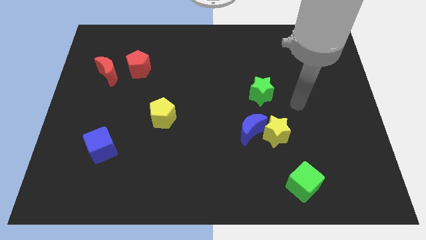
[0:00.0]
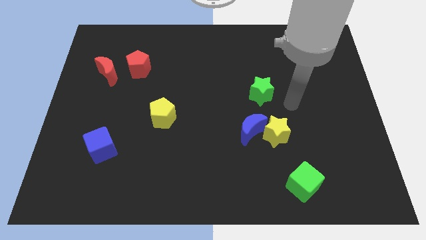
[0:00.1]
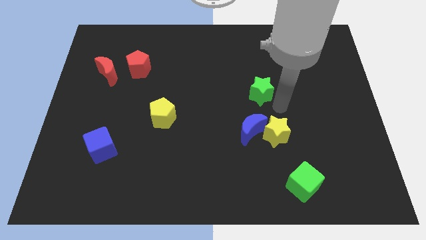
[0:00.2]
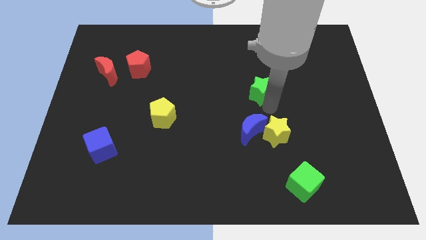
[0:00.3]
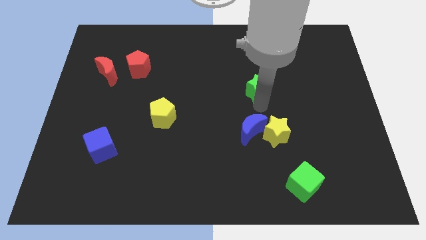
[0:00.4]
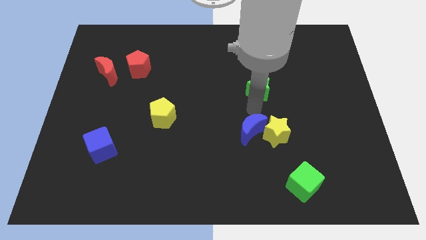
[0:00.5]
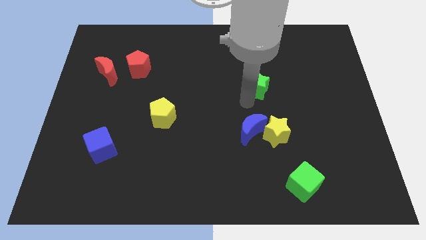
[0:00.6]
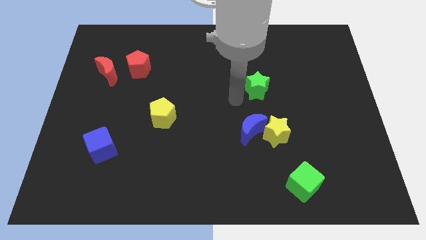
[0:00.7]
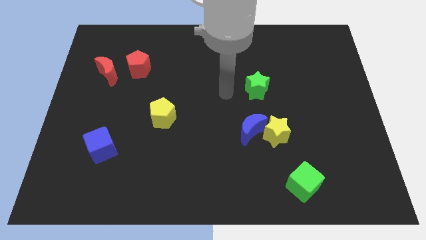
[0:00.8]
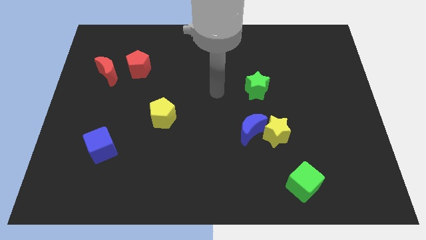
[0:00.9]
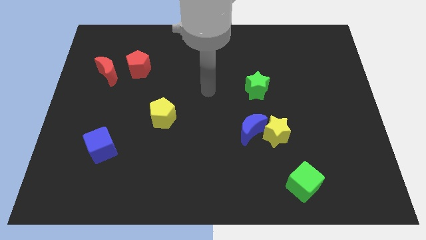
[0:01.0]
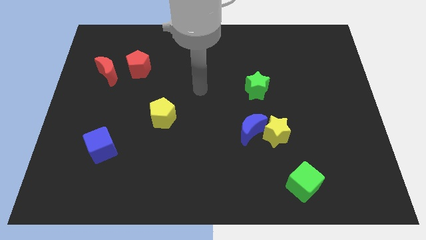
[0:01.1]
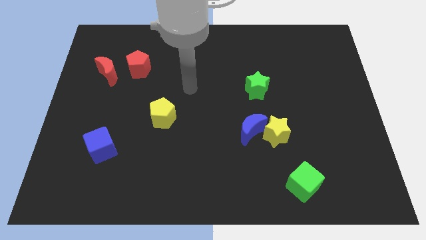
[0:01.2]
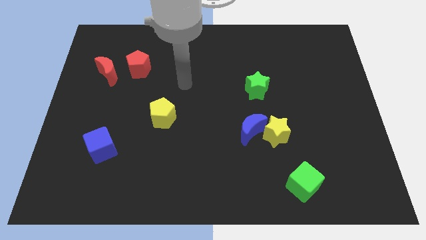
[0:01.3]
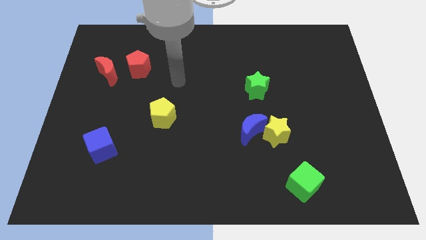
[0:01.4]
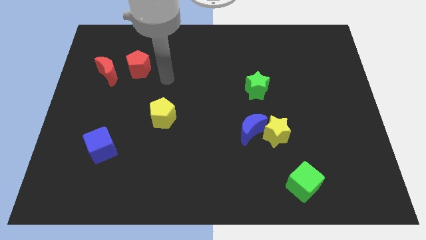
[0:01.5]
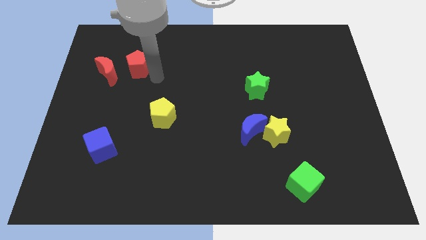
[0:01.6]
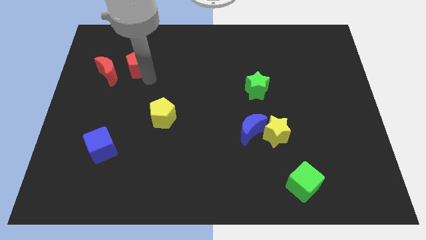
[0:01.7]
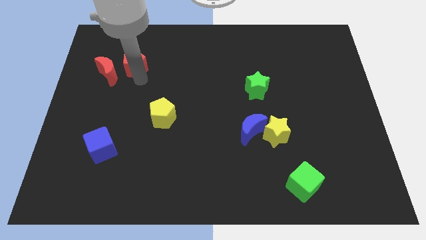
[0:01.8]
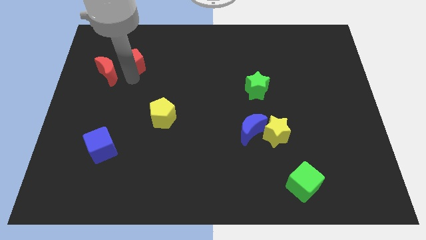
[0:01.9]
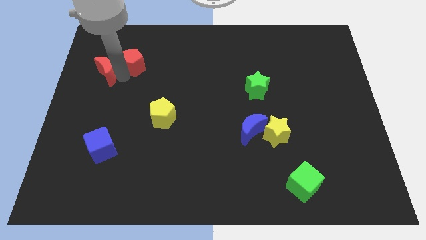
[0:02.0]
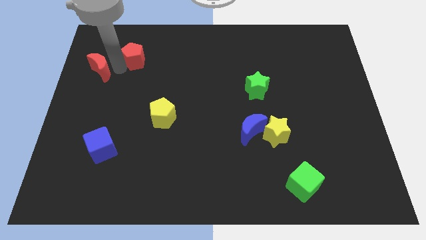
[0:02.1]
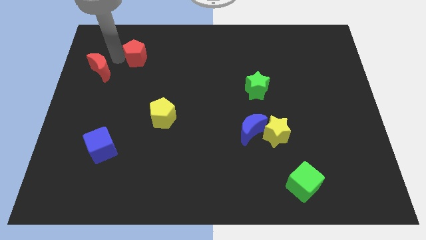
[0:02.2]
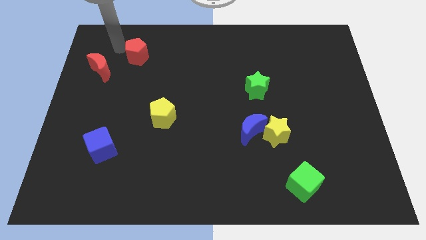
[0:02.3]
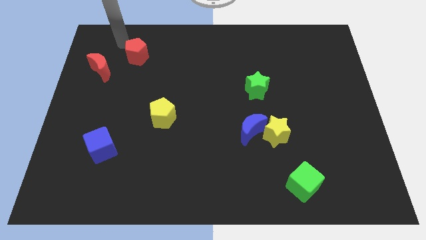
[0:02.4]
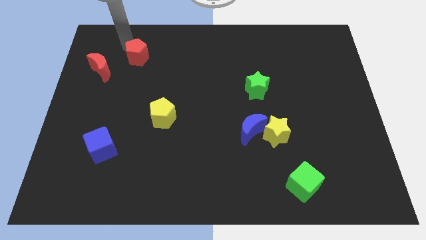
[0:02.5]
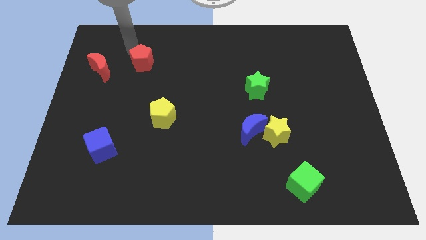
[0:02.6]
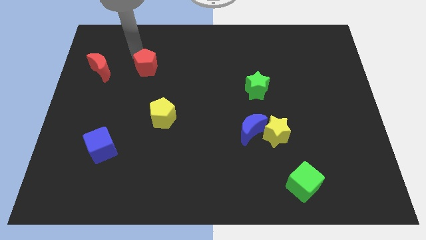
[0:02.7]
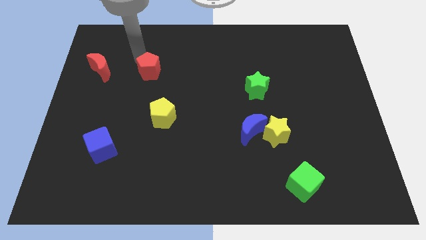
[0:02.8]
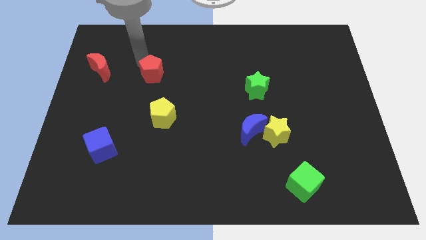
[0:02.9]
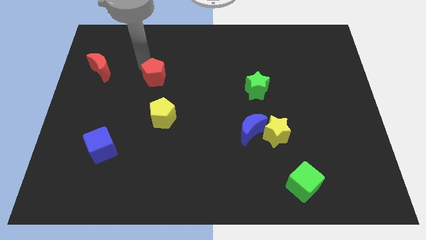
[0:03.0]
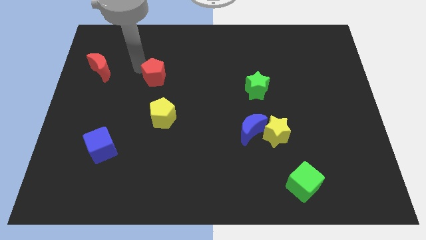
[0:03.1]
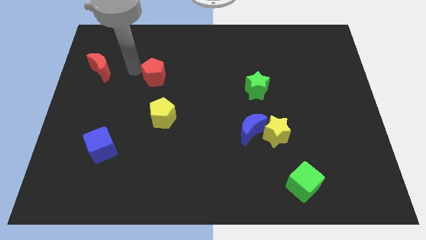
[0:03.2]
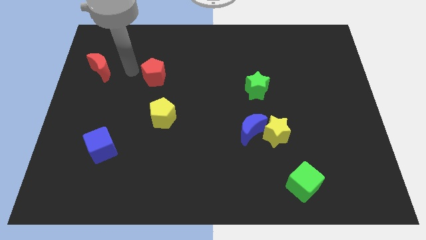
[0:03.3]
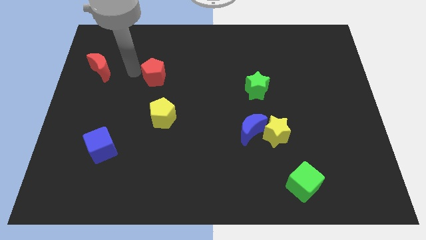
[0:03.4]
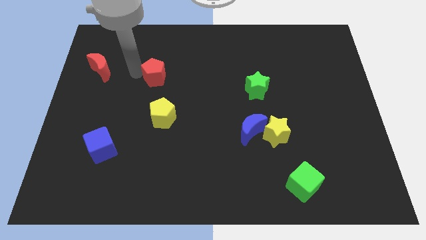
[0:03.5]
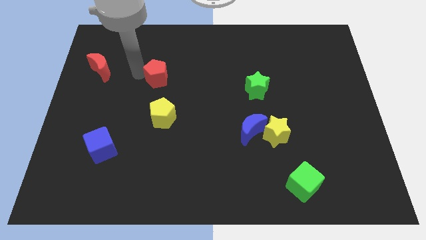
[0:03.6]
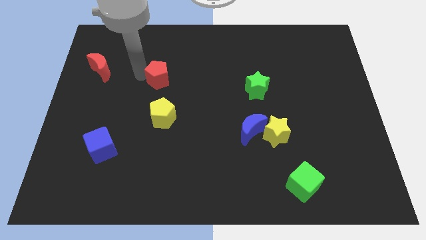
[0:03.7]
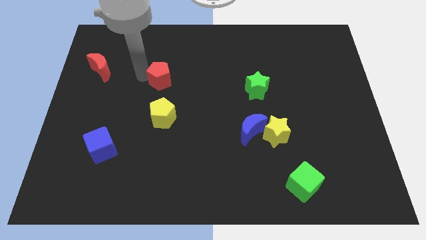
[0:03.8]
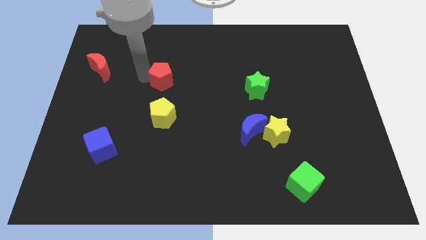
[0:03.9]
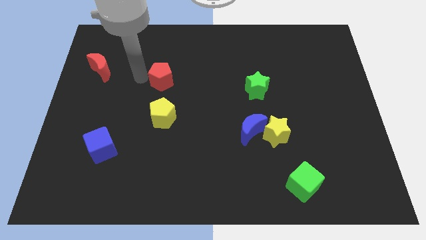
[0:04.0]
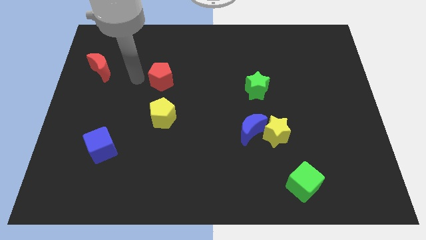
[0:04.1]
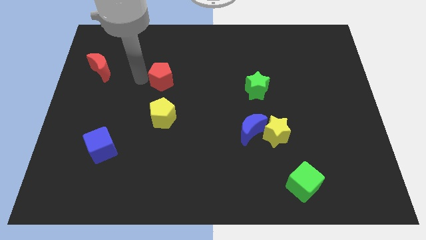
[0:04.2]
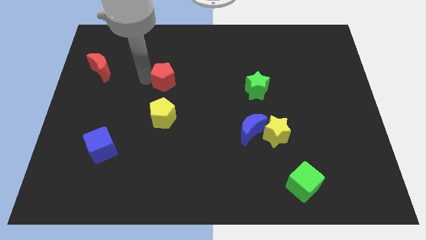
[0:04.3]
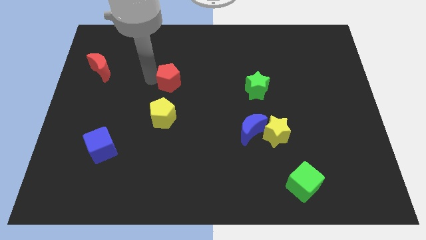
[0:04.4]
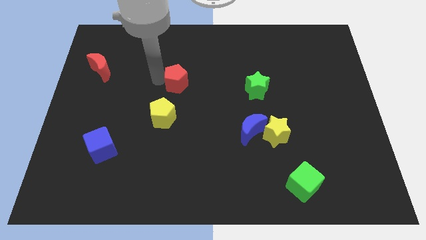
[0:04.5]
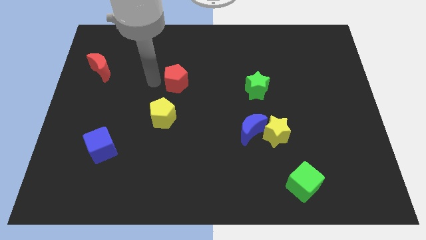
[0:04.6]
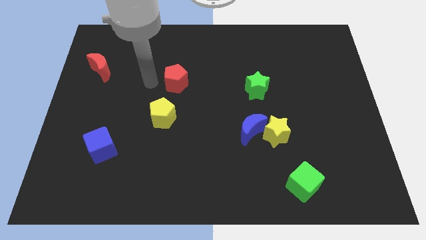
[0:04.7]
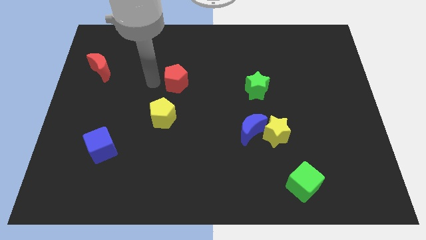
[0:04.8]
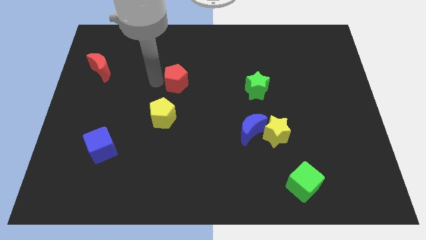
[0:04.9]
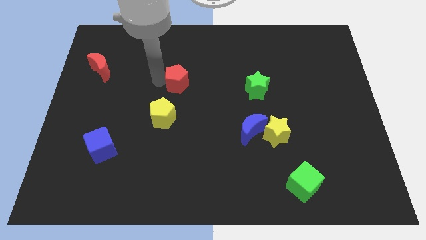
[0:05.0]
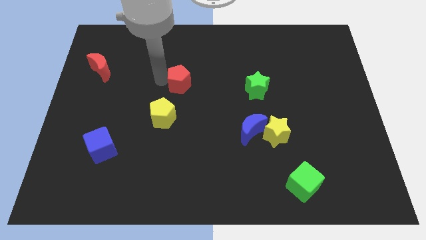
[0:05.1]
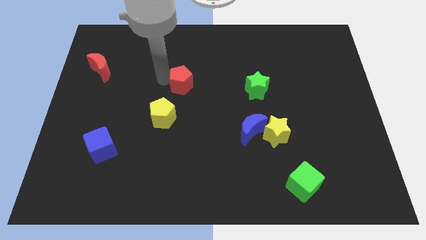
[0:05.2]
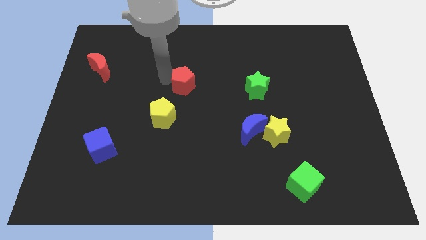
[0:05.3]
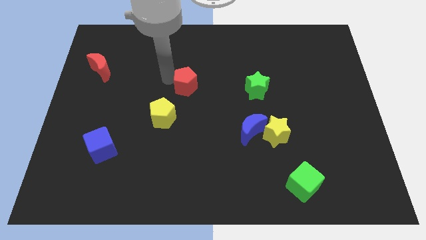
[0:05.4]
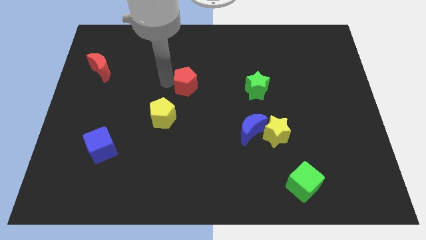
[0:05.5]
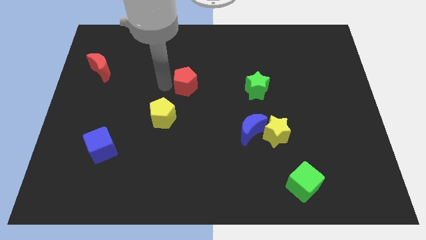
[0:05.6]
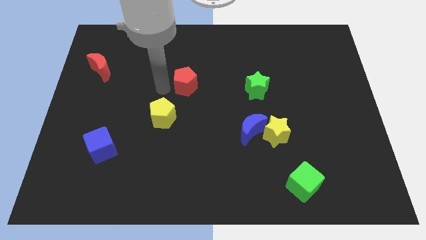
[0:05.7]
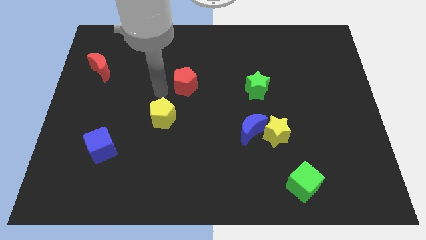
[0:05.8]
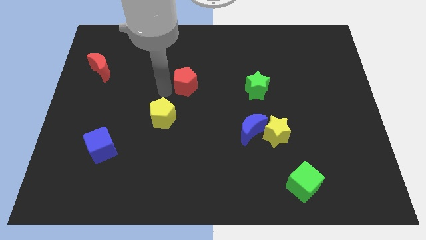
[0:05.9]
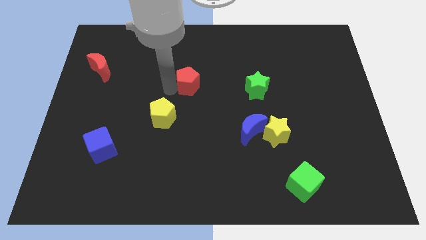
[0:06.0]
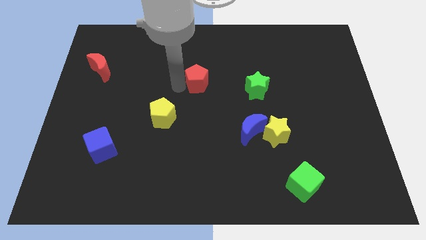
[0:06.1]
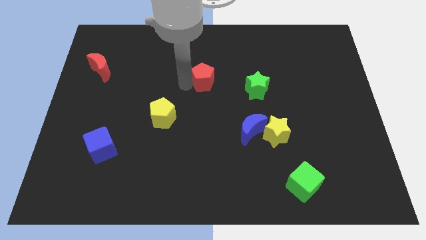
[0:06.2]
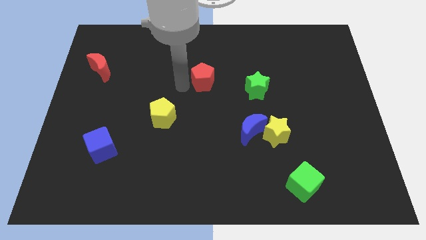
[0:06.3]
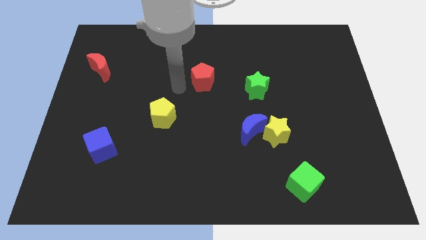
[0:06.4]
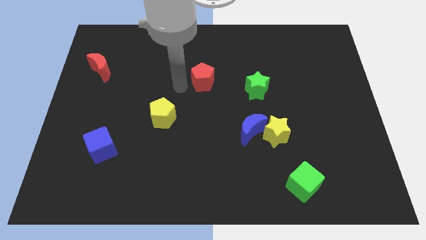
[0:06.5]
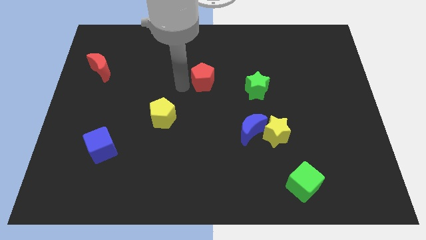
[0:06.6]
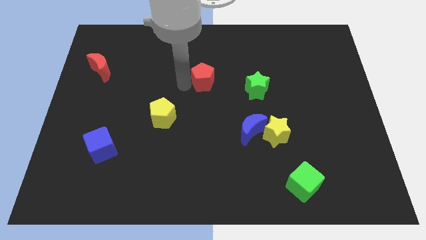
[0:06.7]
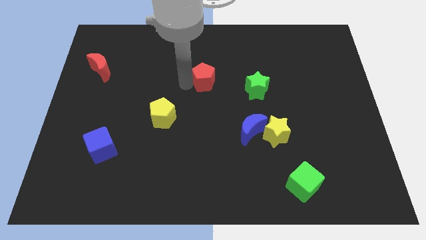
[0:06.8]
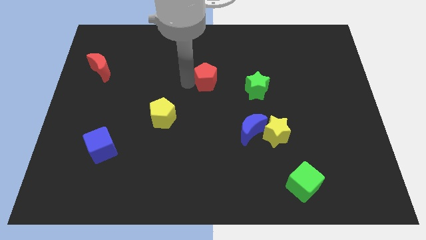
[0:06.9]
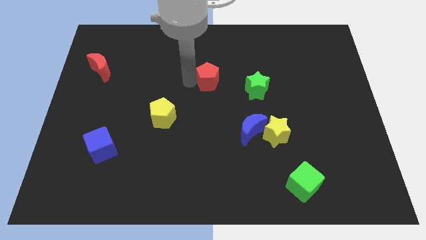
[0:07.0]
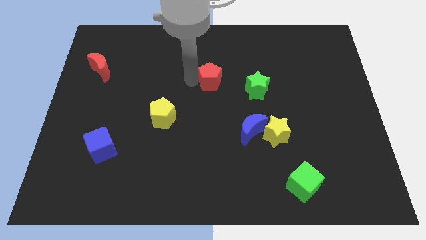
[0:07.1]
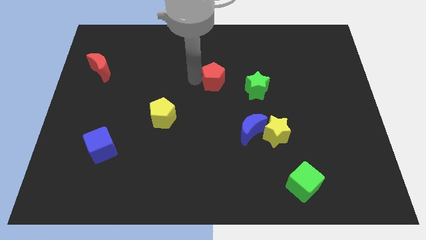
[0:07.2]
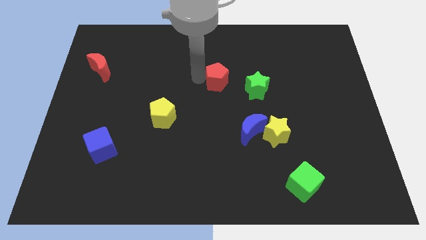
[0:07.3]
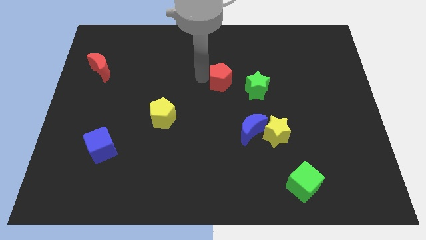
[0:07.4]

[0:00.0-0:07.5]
push the red pentagon to the right

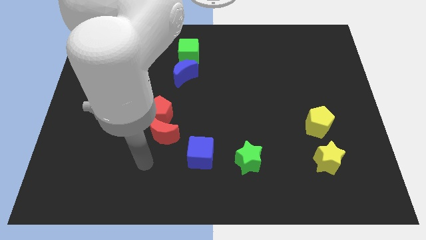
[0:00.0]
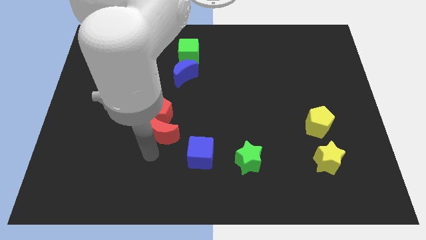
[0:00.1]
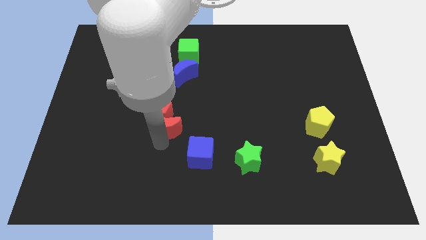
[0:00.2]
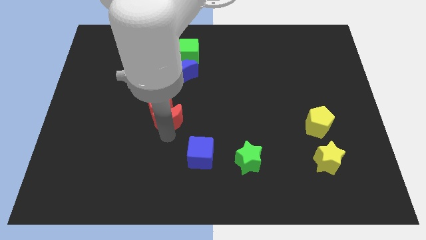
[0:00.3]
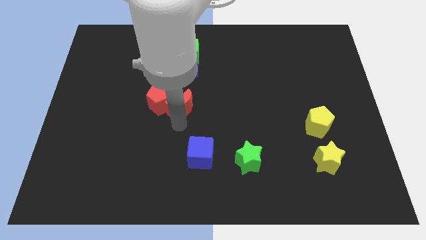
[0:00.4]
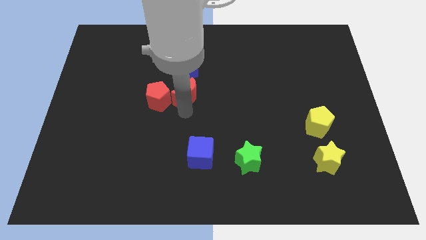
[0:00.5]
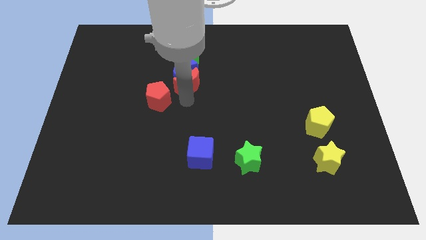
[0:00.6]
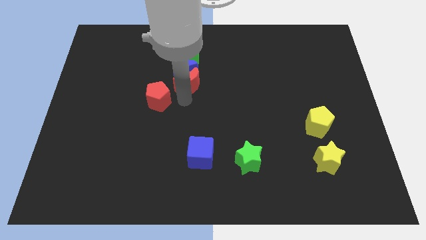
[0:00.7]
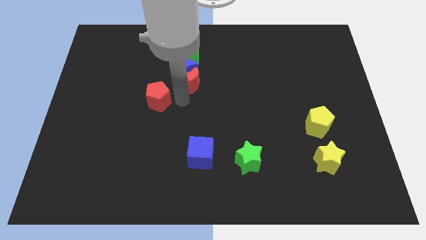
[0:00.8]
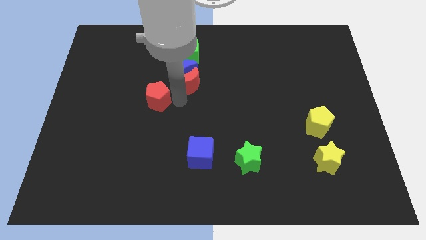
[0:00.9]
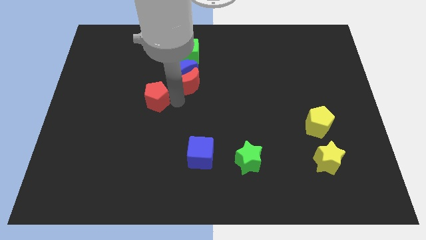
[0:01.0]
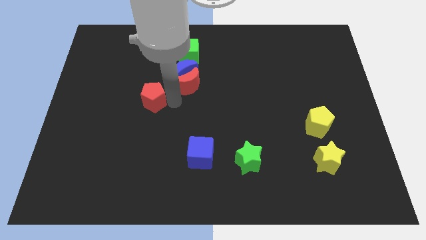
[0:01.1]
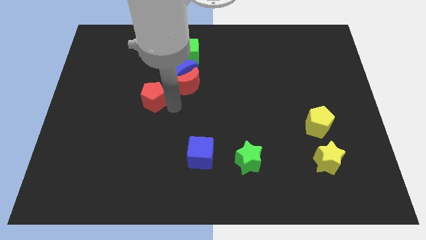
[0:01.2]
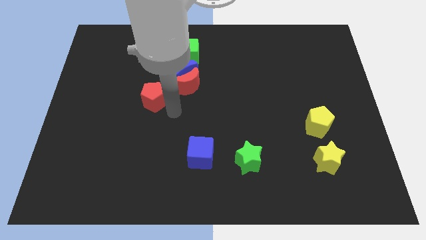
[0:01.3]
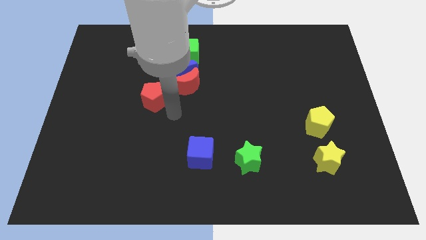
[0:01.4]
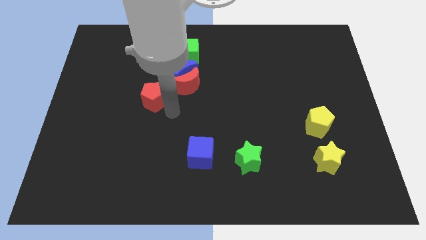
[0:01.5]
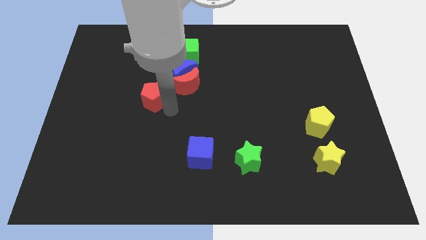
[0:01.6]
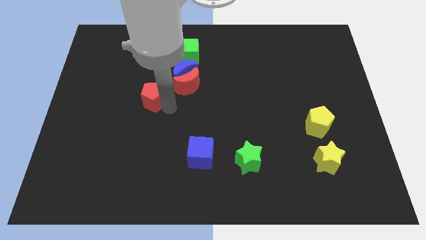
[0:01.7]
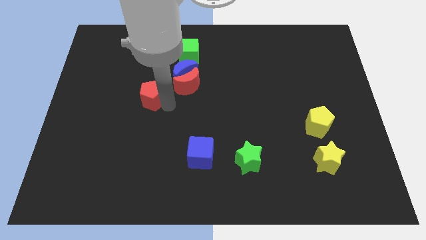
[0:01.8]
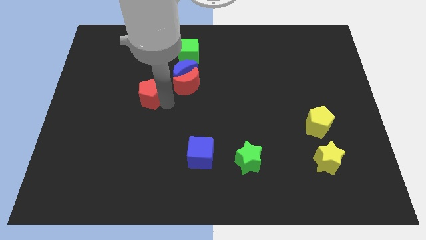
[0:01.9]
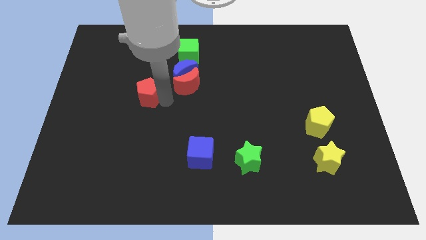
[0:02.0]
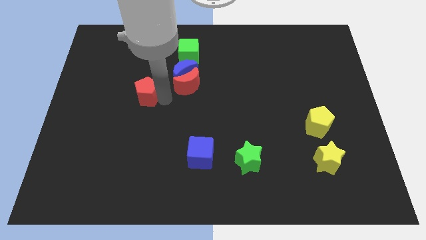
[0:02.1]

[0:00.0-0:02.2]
slightly push the red pentagon upwards and left diagonally
